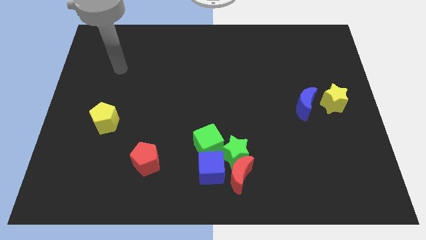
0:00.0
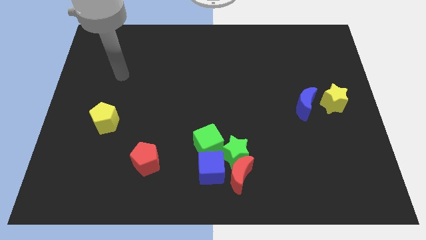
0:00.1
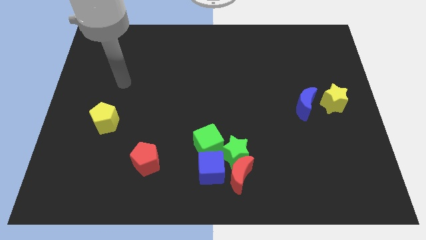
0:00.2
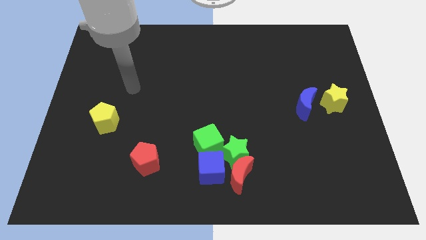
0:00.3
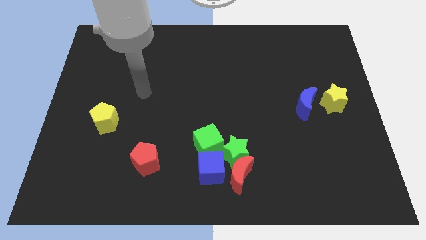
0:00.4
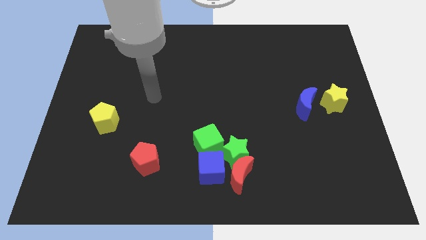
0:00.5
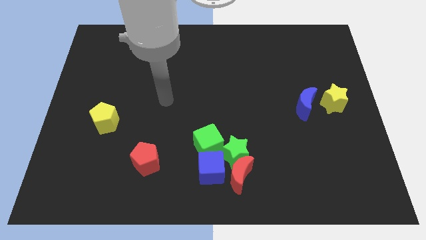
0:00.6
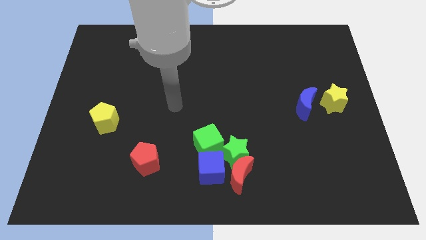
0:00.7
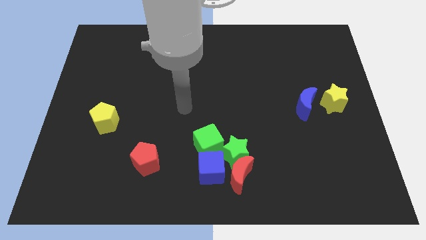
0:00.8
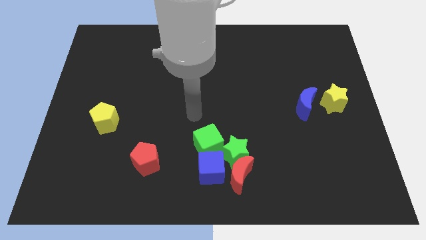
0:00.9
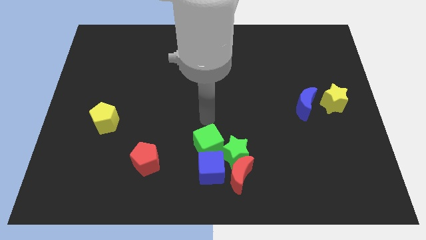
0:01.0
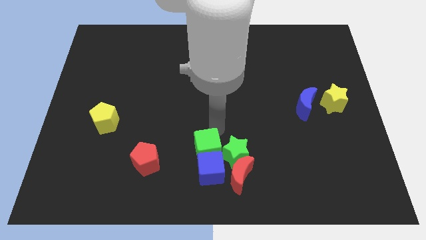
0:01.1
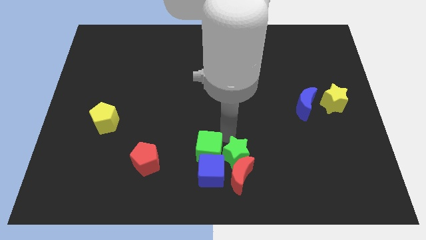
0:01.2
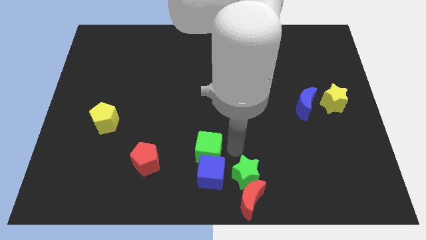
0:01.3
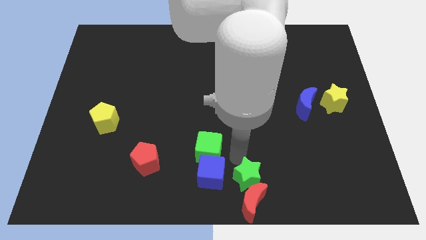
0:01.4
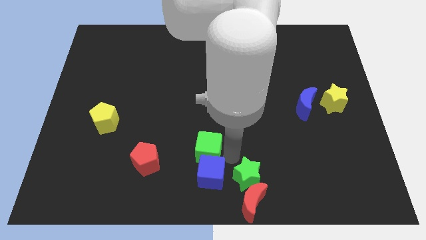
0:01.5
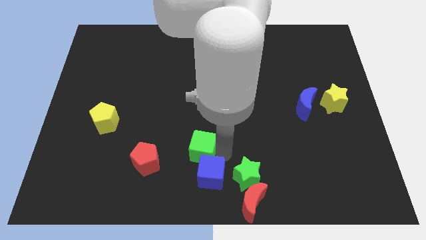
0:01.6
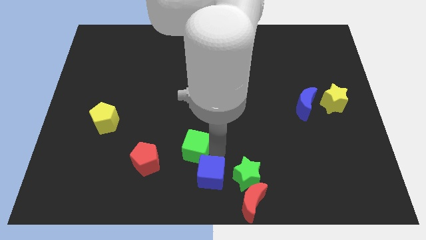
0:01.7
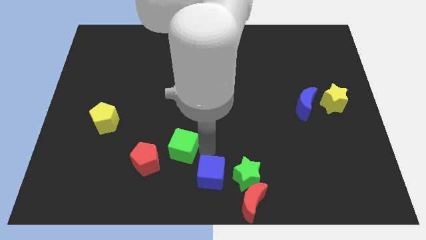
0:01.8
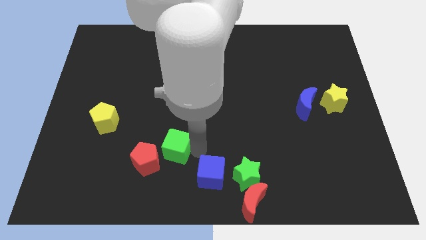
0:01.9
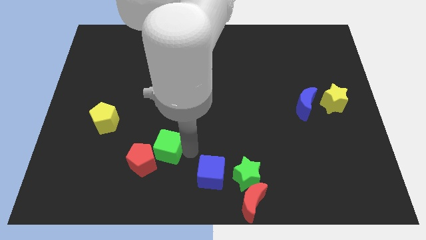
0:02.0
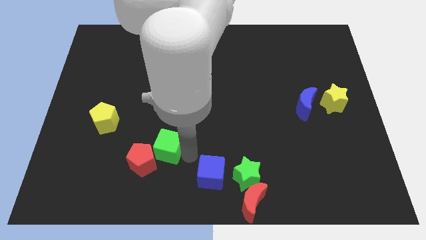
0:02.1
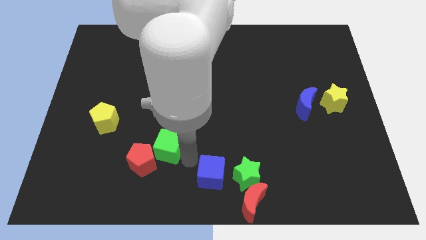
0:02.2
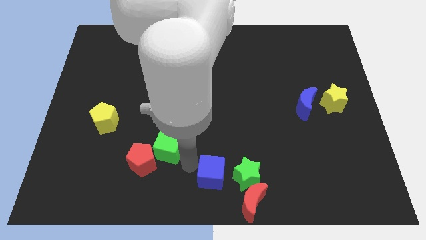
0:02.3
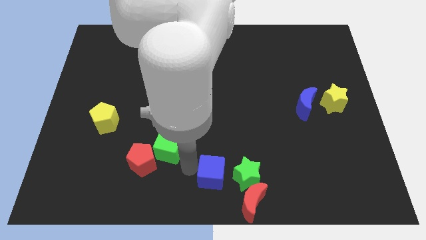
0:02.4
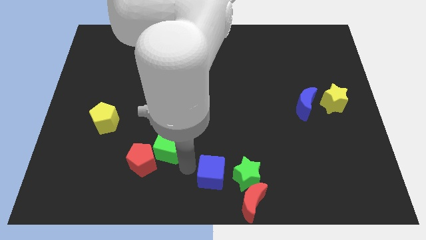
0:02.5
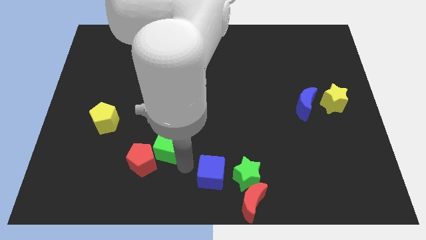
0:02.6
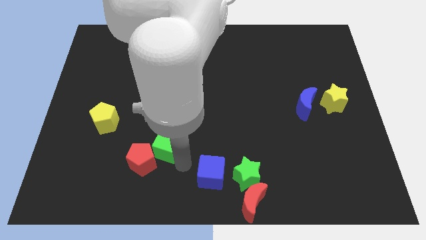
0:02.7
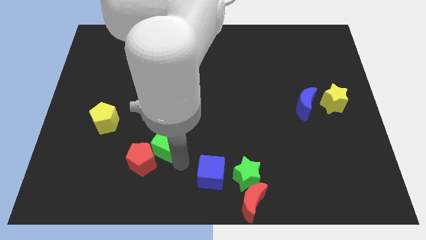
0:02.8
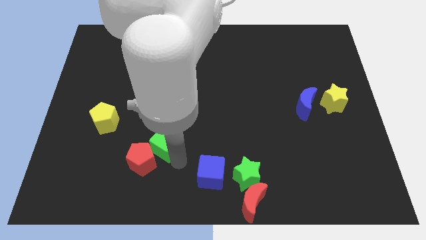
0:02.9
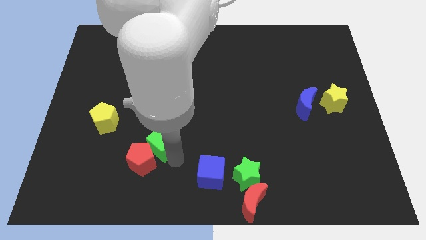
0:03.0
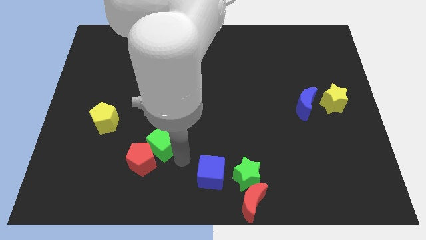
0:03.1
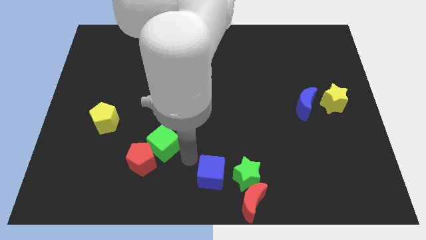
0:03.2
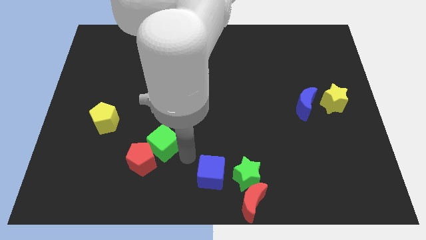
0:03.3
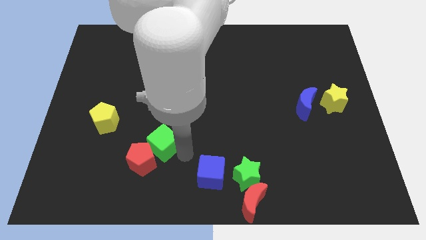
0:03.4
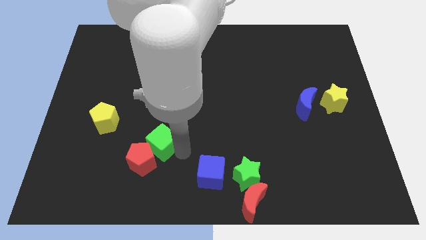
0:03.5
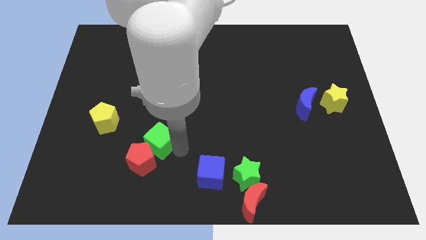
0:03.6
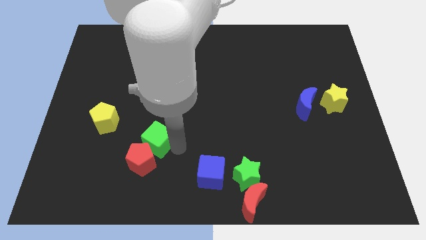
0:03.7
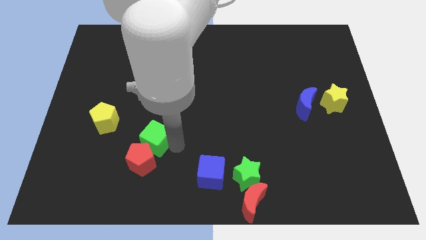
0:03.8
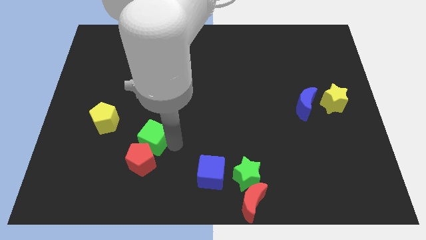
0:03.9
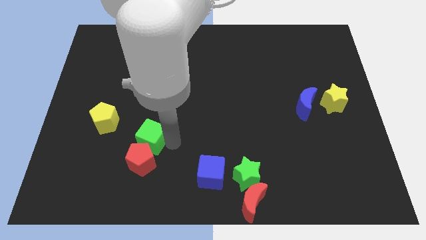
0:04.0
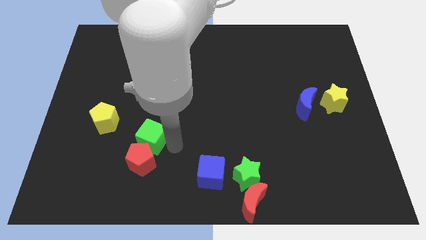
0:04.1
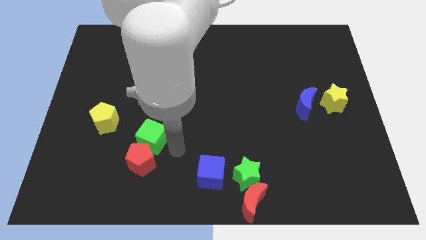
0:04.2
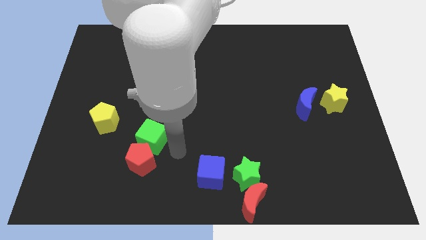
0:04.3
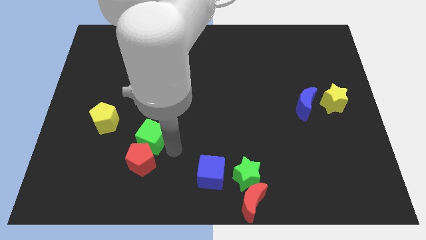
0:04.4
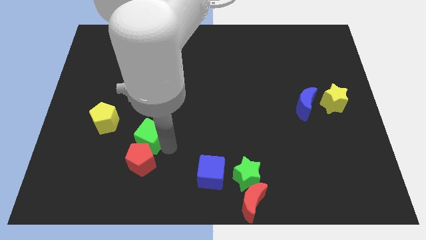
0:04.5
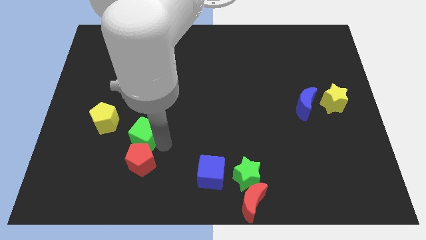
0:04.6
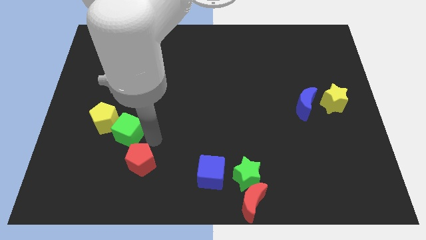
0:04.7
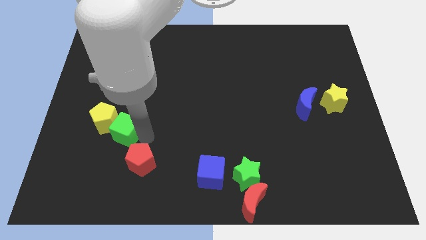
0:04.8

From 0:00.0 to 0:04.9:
move the green cube towards the yellow pentagon

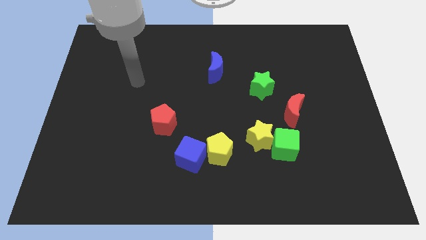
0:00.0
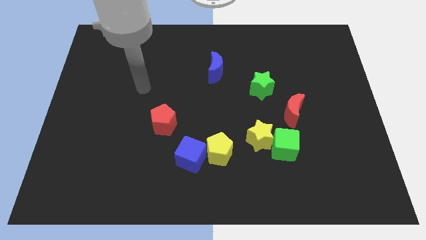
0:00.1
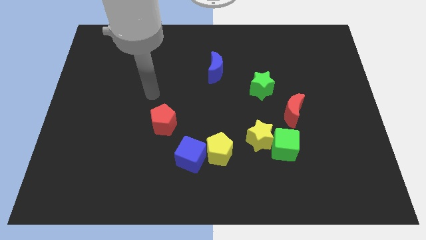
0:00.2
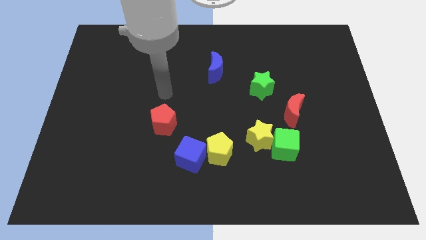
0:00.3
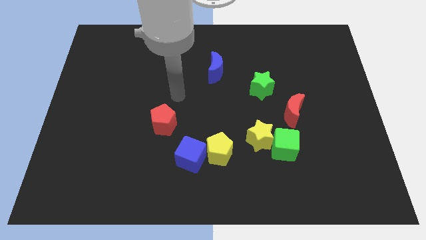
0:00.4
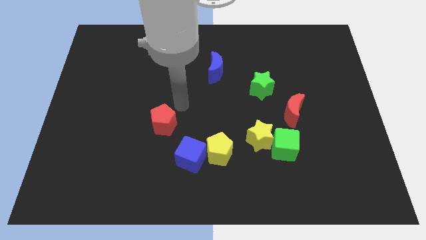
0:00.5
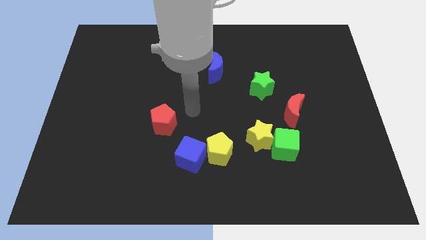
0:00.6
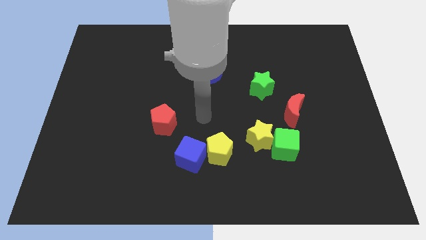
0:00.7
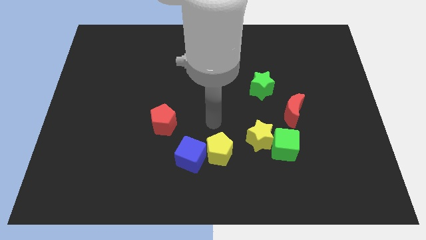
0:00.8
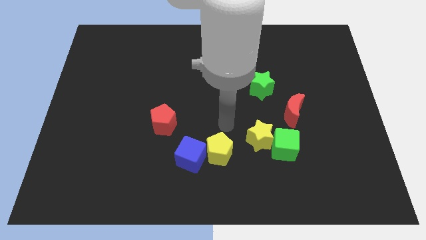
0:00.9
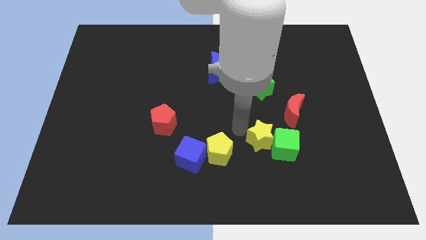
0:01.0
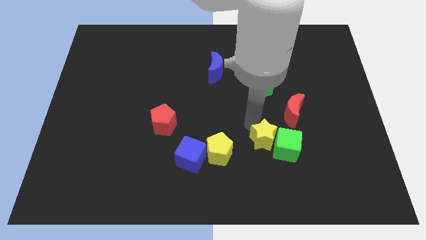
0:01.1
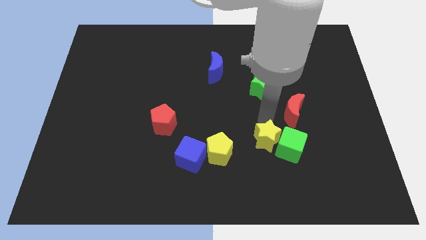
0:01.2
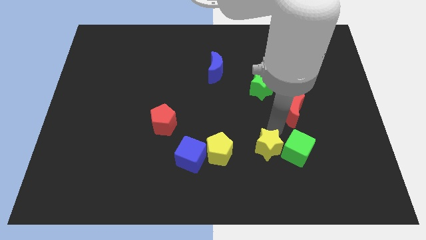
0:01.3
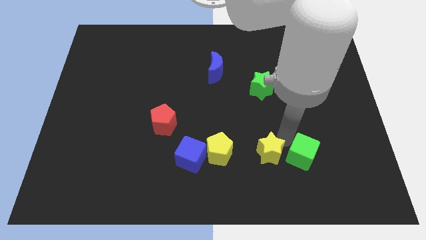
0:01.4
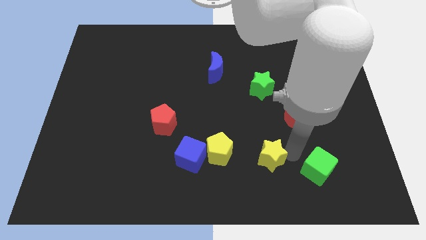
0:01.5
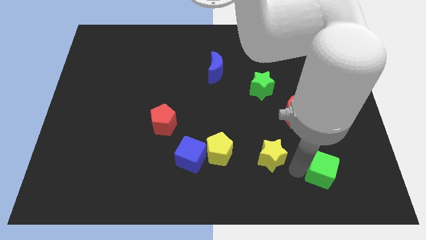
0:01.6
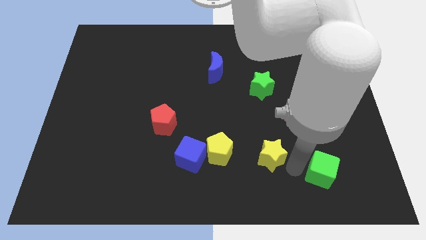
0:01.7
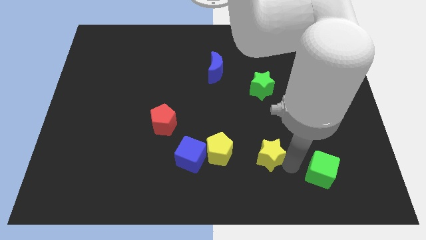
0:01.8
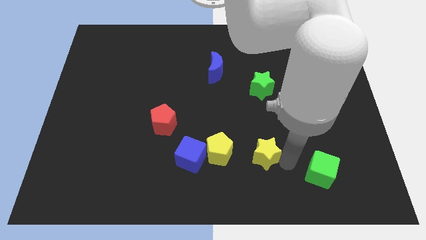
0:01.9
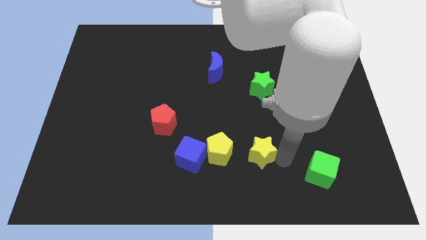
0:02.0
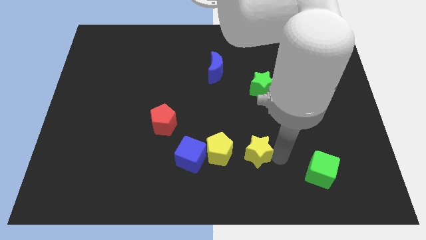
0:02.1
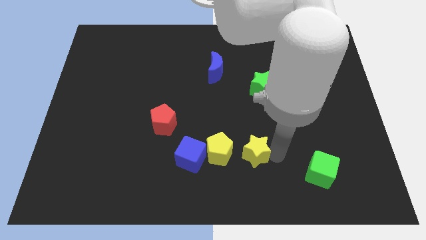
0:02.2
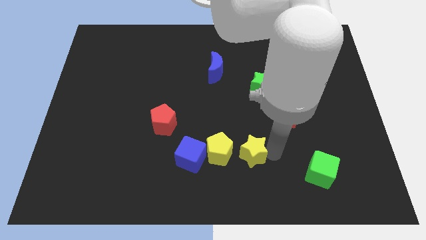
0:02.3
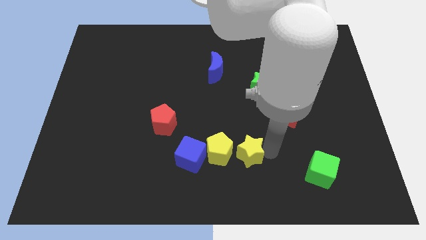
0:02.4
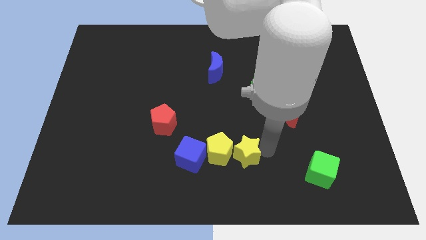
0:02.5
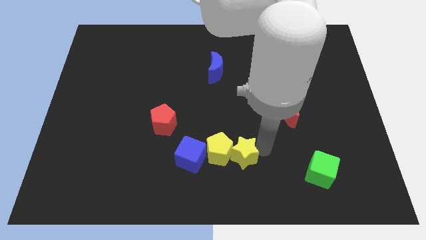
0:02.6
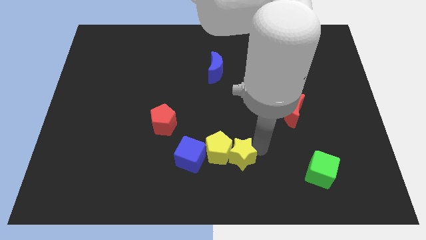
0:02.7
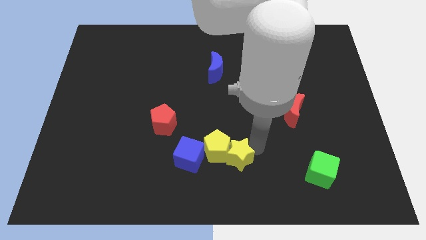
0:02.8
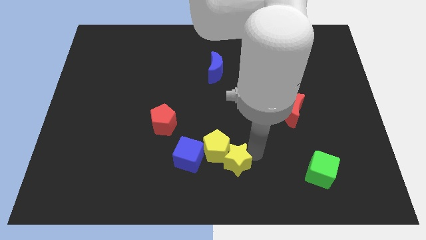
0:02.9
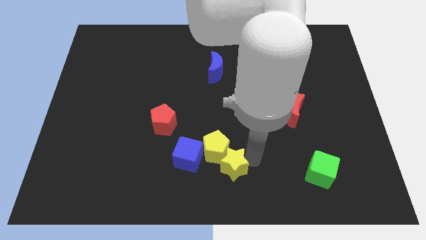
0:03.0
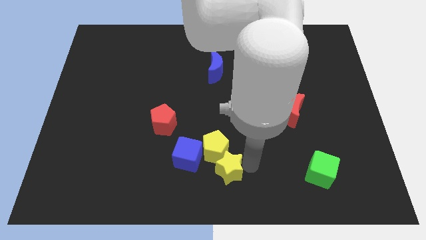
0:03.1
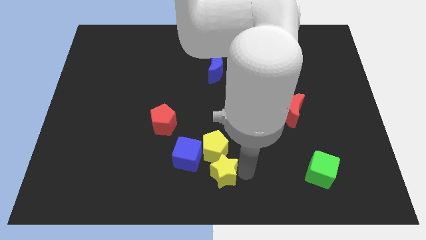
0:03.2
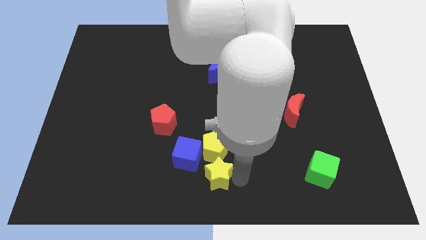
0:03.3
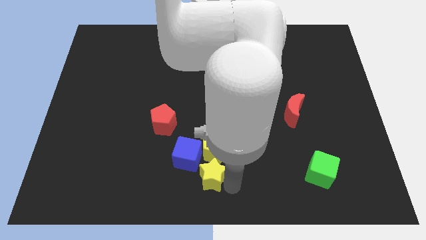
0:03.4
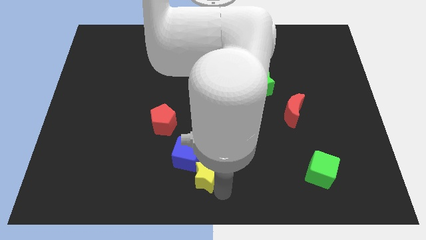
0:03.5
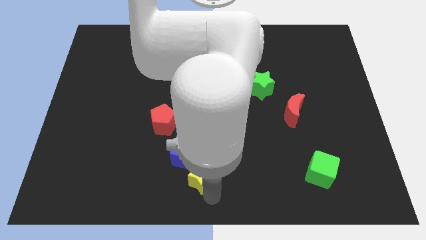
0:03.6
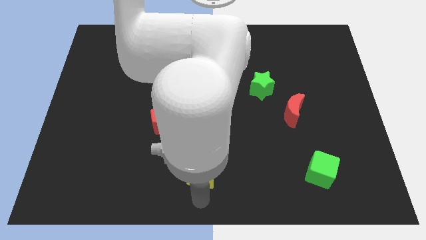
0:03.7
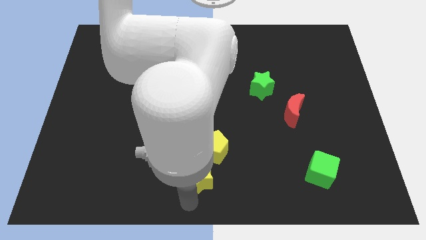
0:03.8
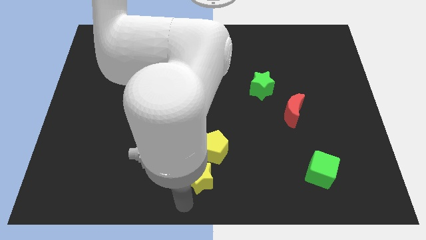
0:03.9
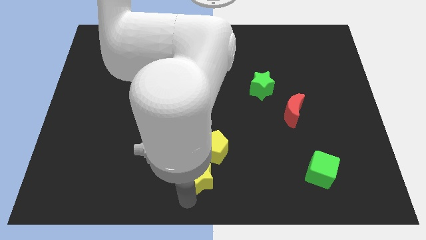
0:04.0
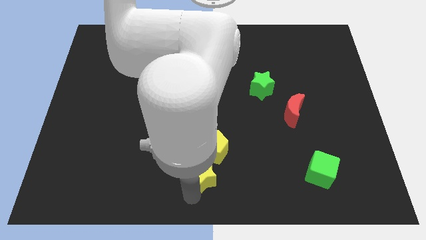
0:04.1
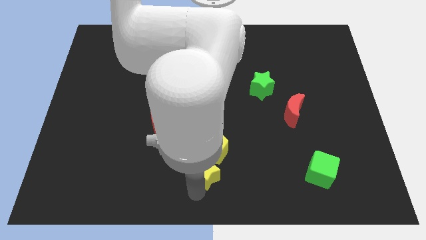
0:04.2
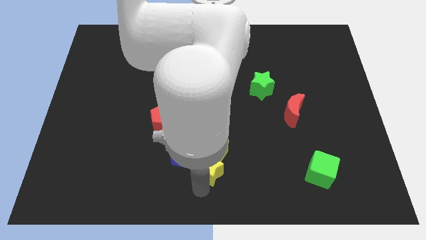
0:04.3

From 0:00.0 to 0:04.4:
move the yellow star next to the blue cube
